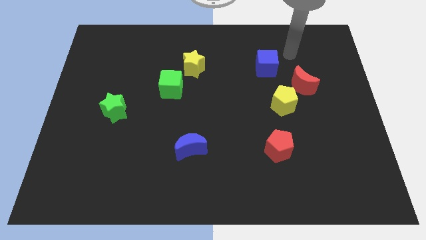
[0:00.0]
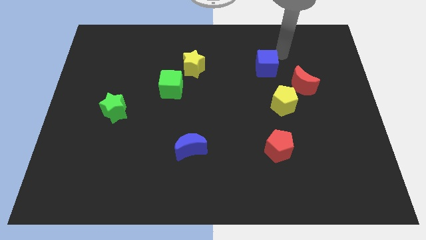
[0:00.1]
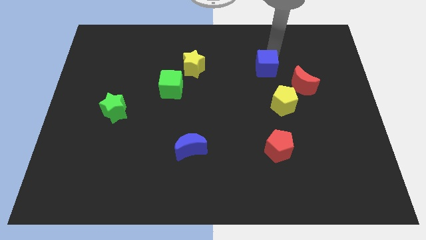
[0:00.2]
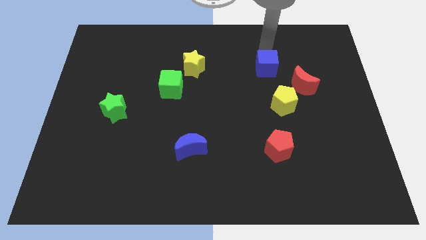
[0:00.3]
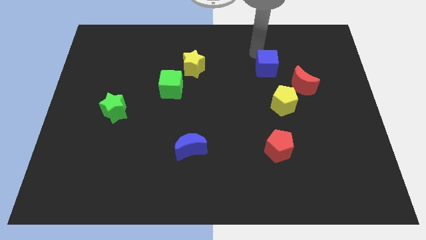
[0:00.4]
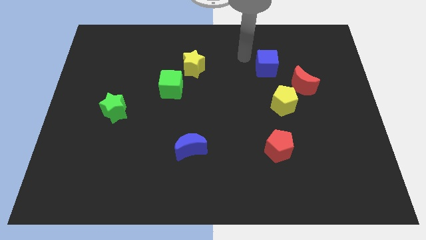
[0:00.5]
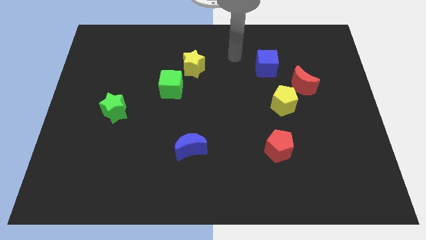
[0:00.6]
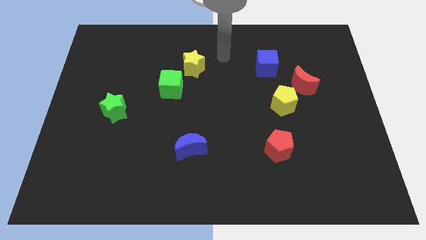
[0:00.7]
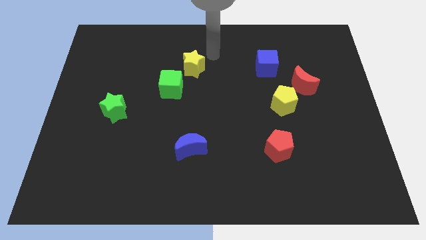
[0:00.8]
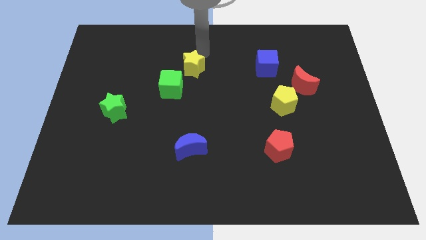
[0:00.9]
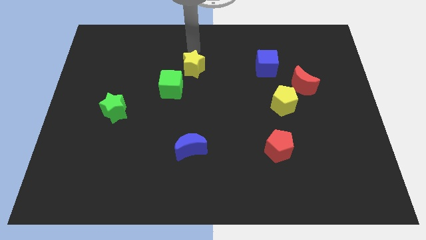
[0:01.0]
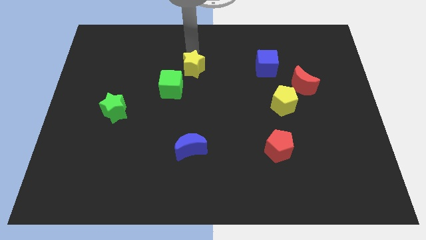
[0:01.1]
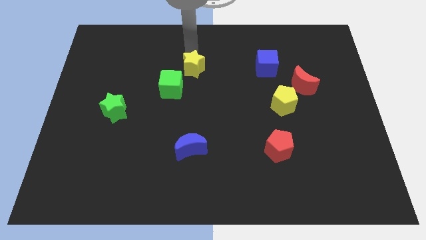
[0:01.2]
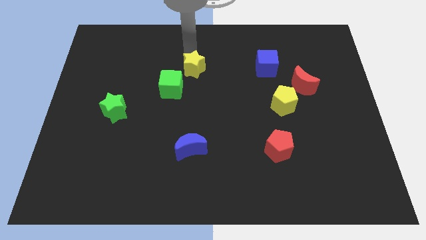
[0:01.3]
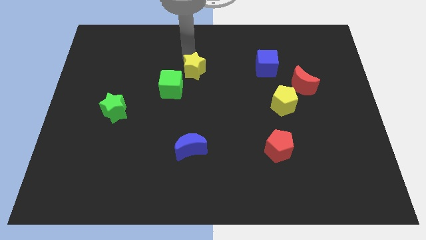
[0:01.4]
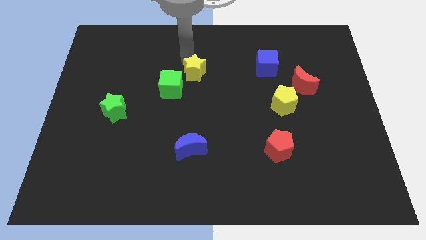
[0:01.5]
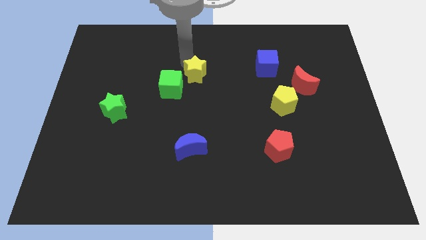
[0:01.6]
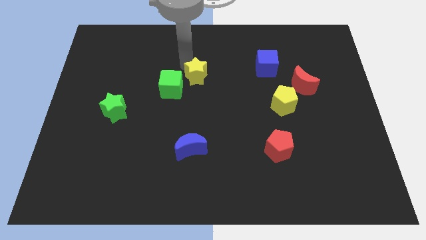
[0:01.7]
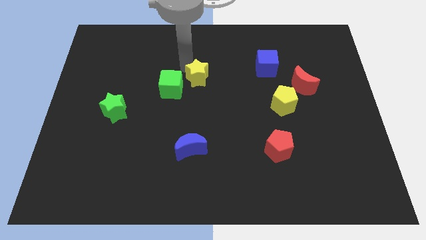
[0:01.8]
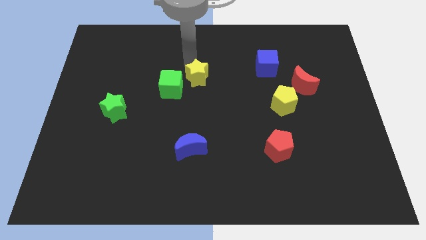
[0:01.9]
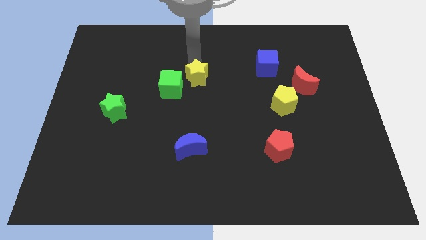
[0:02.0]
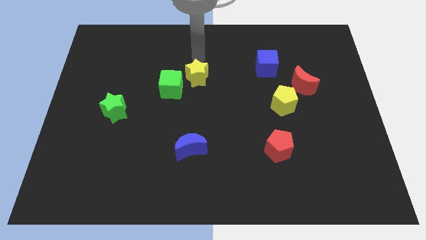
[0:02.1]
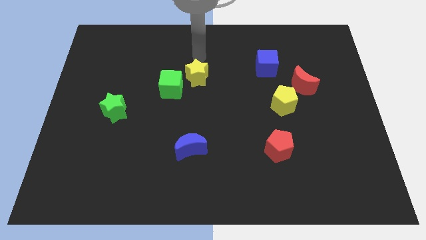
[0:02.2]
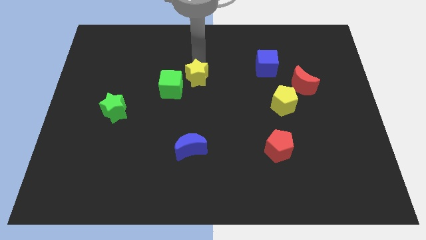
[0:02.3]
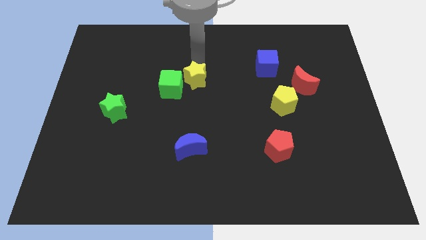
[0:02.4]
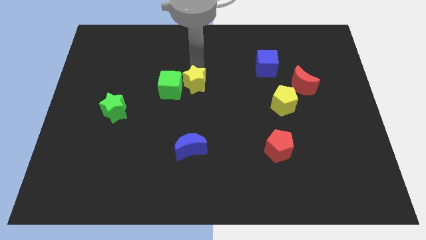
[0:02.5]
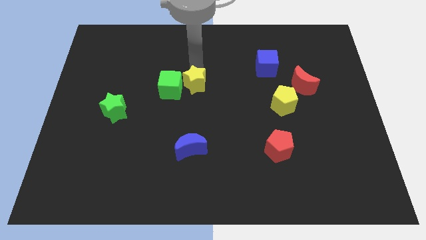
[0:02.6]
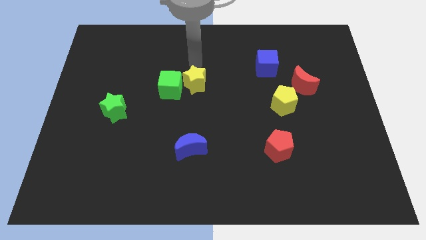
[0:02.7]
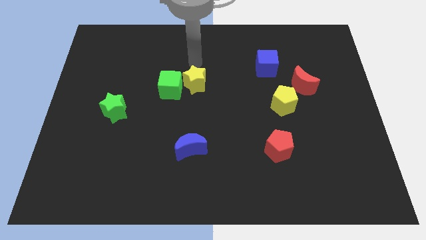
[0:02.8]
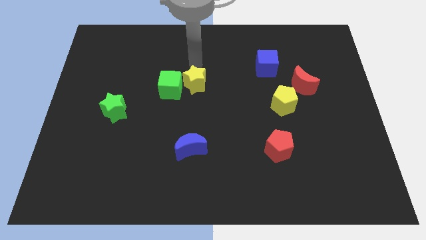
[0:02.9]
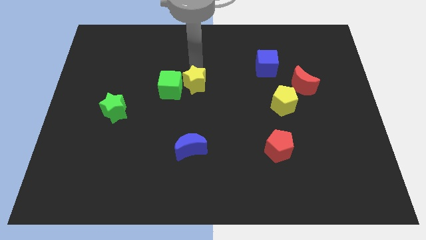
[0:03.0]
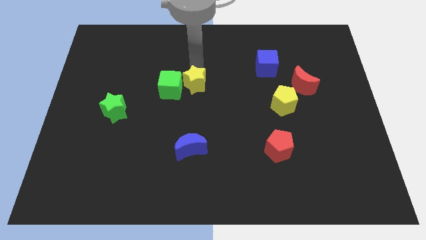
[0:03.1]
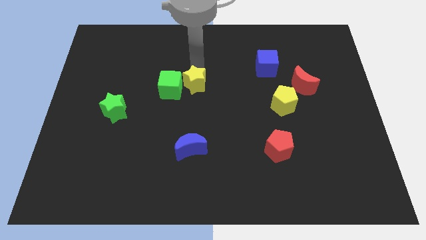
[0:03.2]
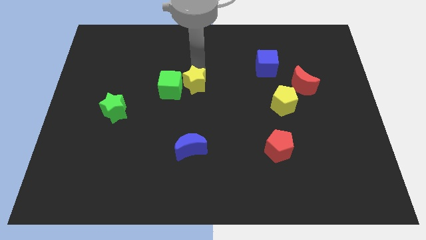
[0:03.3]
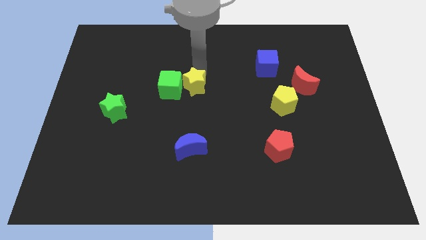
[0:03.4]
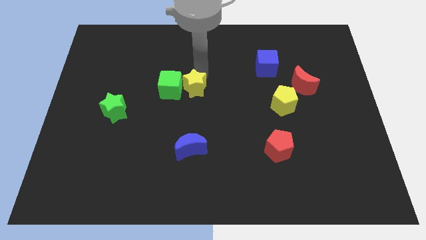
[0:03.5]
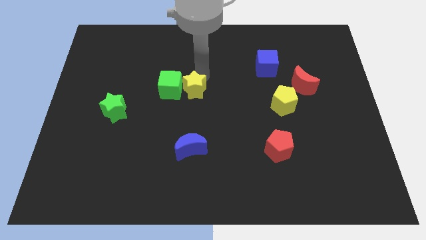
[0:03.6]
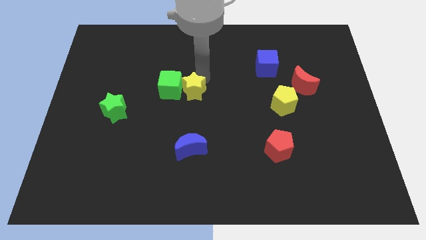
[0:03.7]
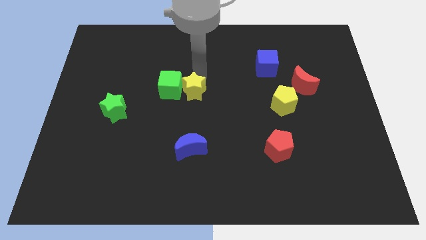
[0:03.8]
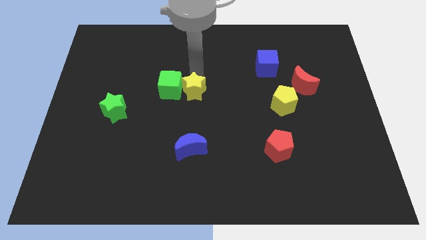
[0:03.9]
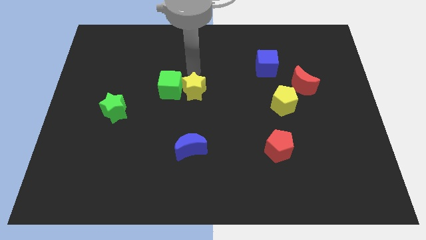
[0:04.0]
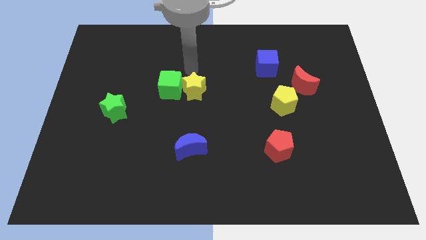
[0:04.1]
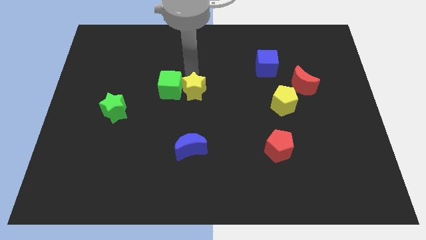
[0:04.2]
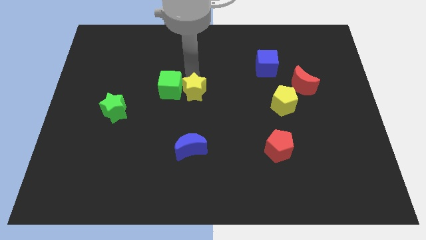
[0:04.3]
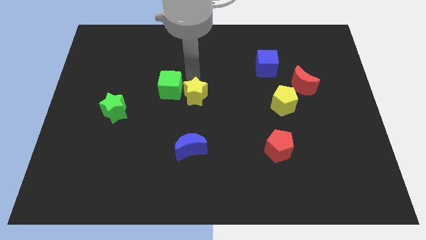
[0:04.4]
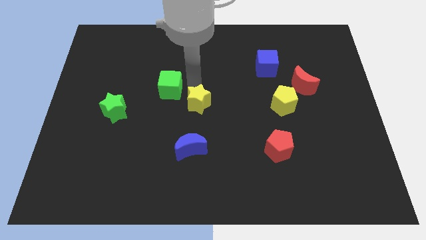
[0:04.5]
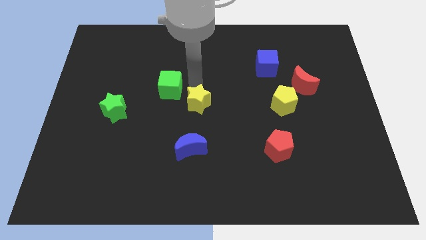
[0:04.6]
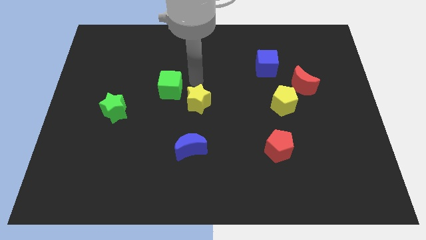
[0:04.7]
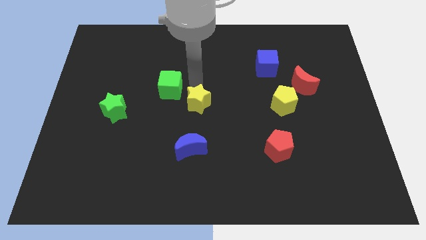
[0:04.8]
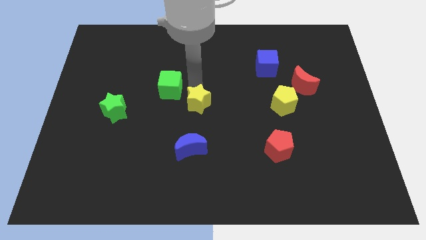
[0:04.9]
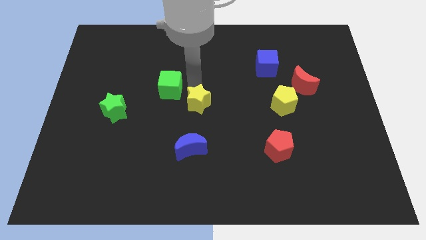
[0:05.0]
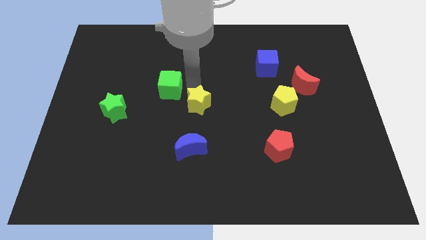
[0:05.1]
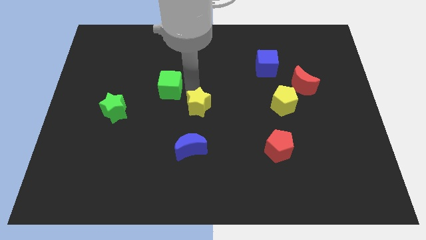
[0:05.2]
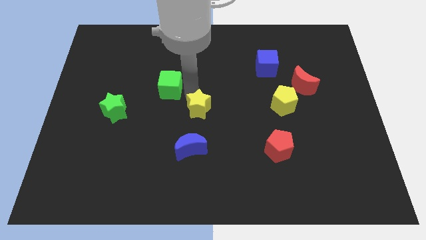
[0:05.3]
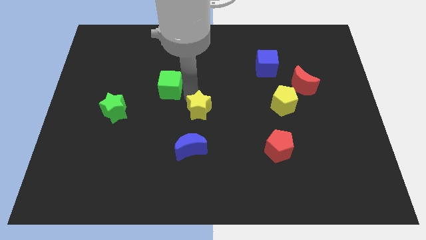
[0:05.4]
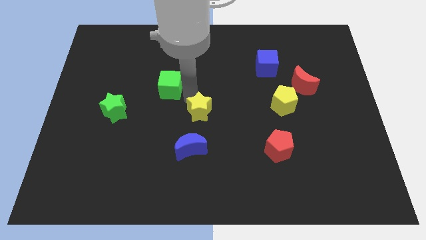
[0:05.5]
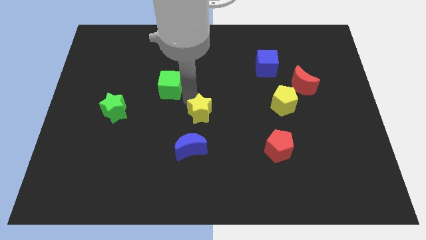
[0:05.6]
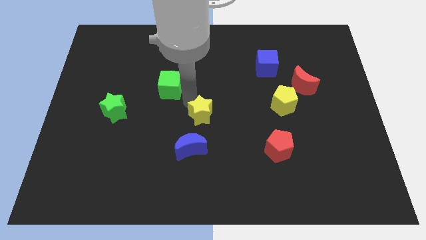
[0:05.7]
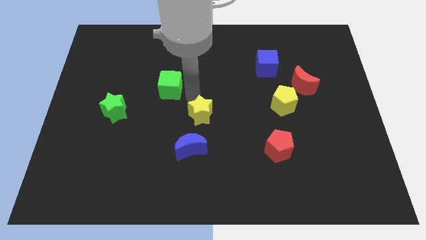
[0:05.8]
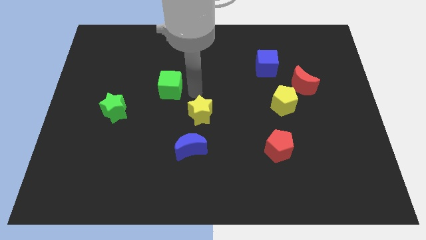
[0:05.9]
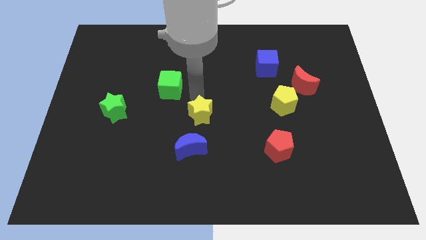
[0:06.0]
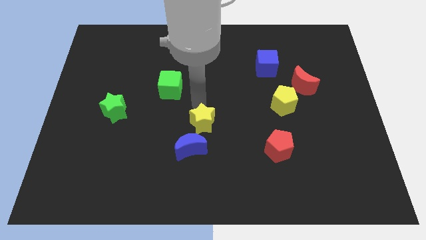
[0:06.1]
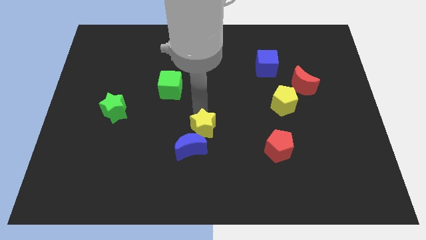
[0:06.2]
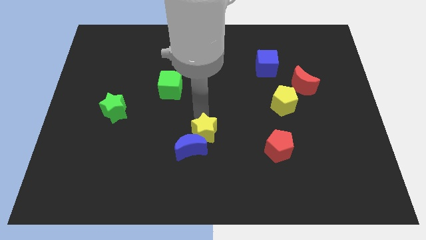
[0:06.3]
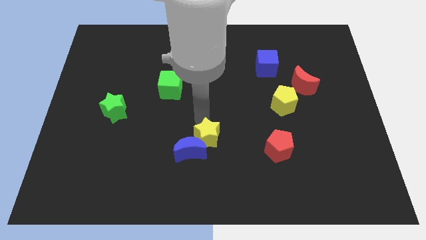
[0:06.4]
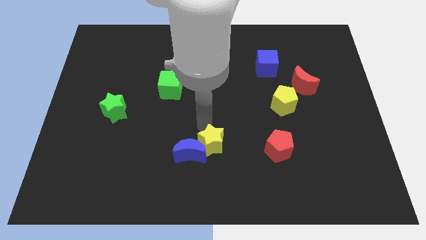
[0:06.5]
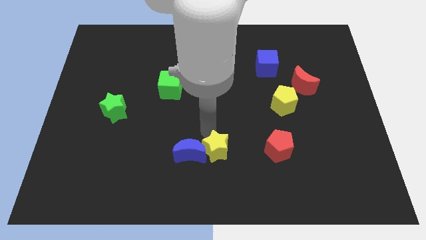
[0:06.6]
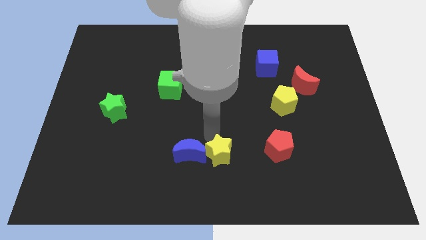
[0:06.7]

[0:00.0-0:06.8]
push the yellow star to the bottom
